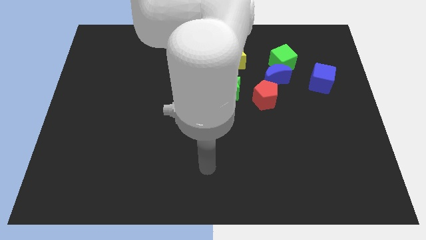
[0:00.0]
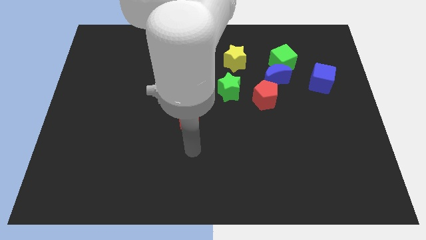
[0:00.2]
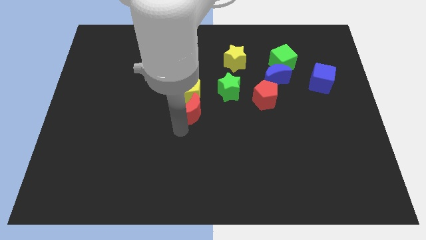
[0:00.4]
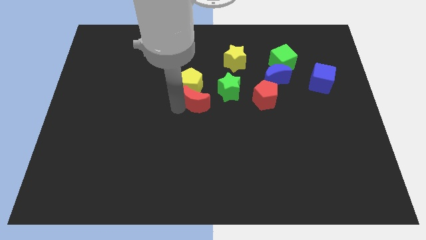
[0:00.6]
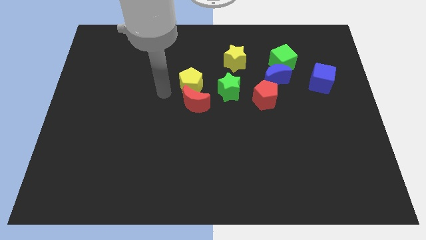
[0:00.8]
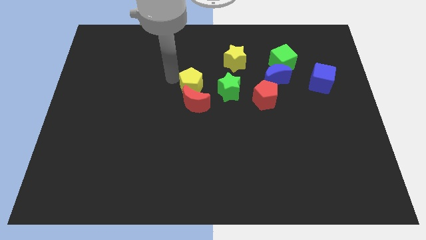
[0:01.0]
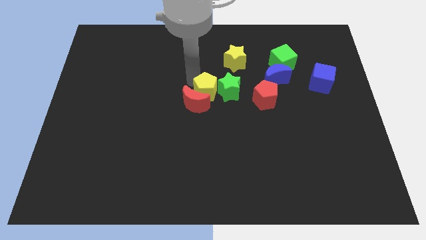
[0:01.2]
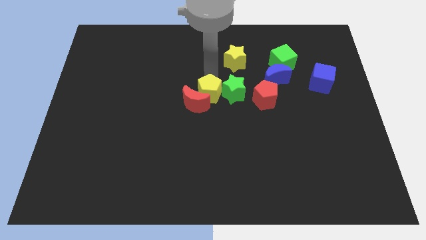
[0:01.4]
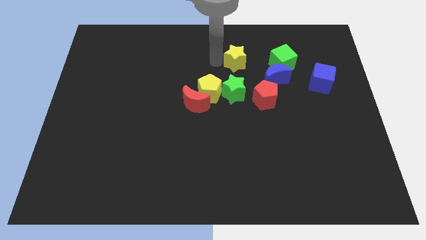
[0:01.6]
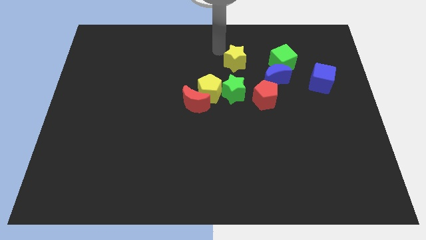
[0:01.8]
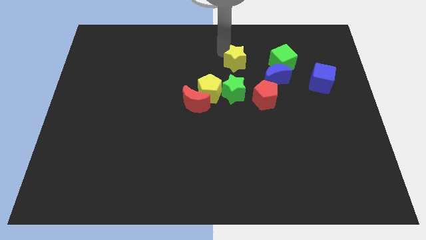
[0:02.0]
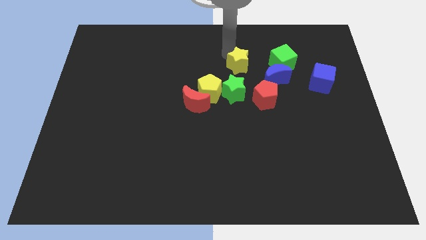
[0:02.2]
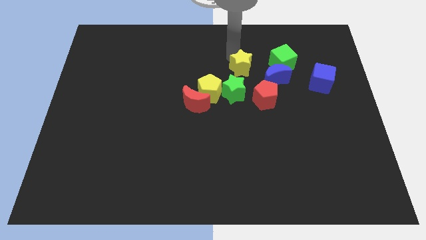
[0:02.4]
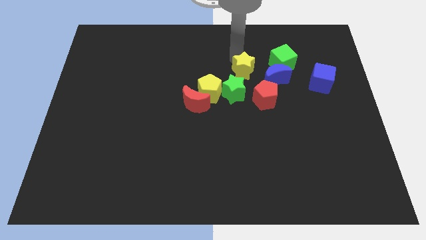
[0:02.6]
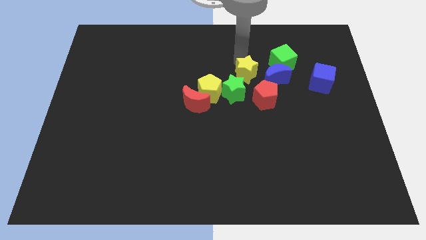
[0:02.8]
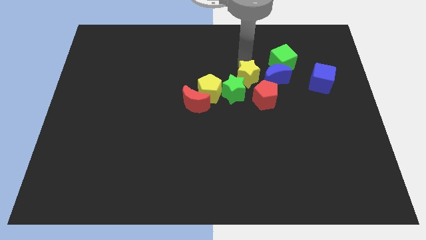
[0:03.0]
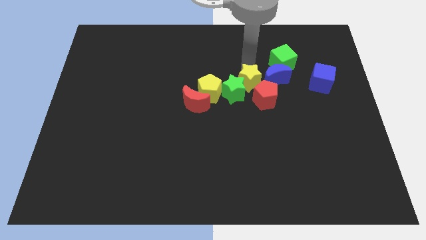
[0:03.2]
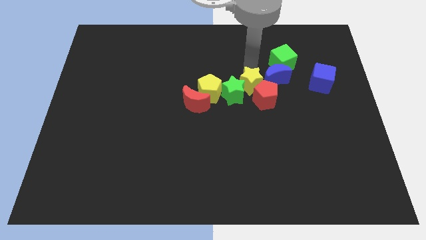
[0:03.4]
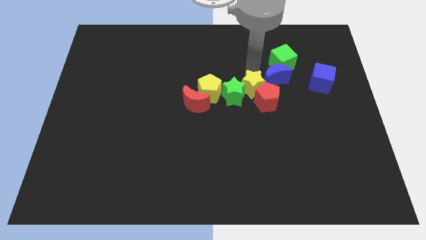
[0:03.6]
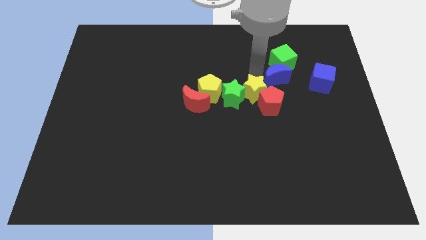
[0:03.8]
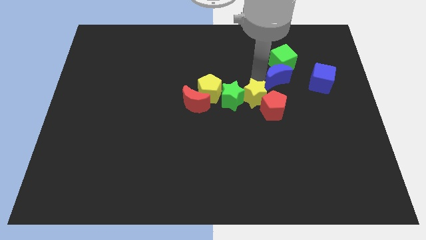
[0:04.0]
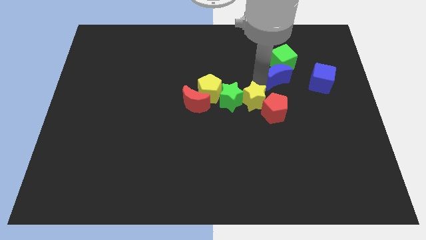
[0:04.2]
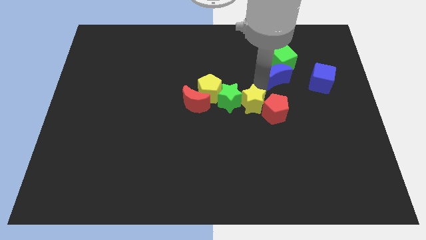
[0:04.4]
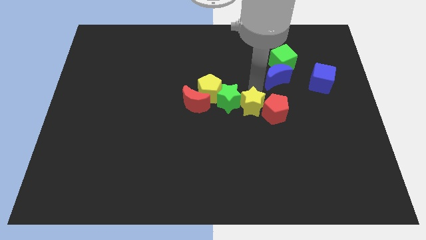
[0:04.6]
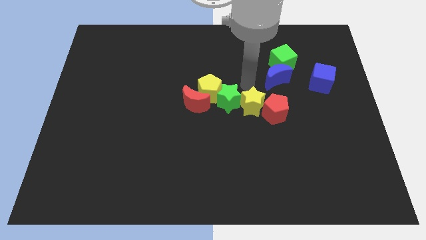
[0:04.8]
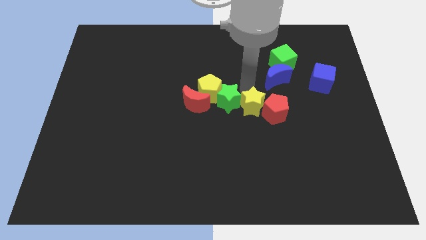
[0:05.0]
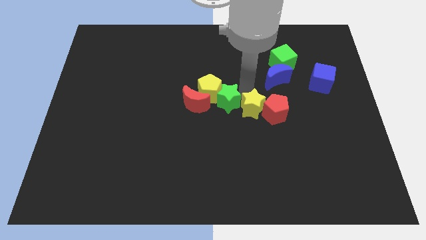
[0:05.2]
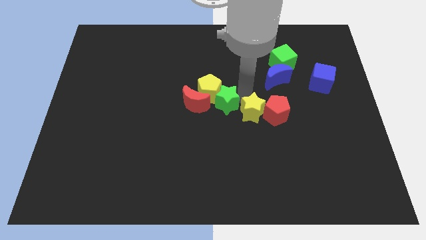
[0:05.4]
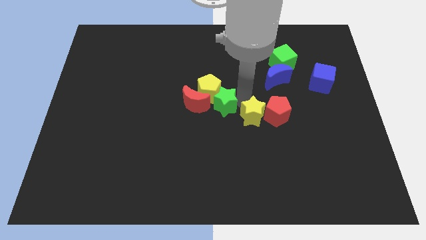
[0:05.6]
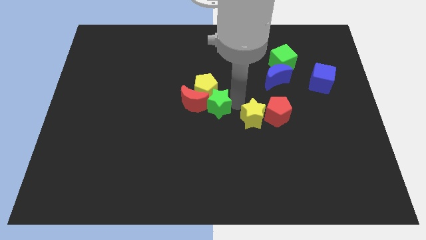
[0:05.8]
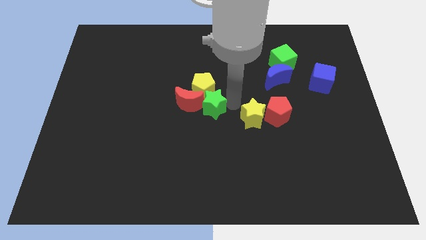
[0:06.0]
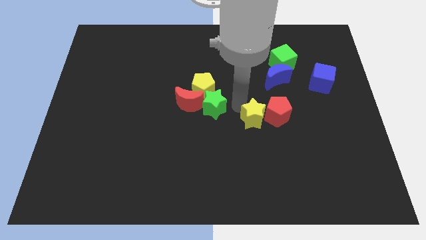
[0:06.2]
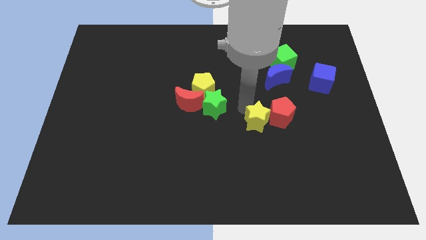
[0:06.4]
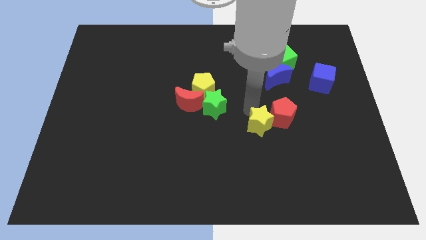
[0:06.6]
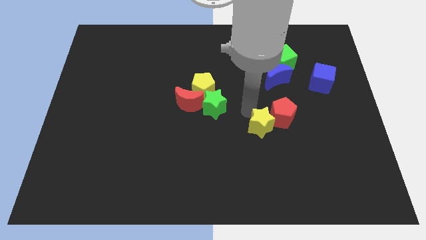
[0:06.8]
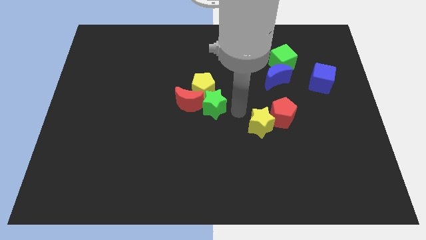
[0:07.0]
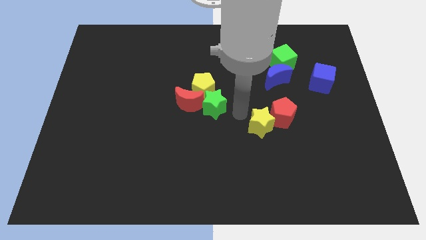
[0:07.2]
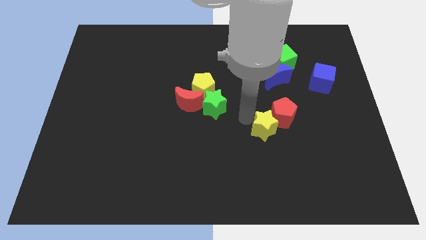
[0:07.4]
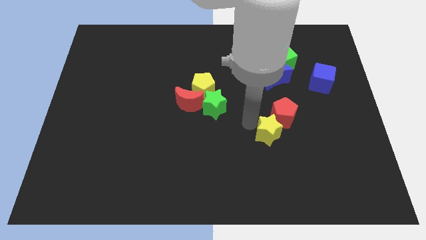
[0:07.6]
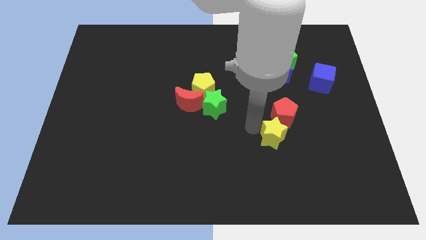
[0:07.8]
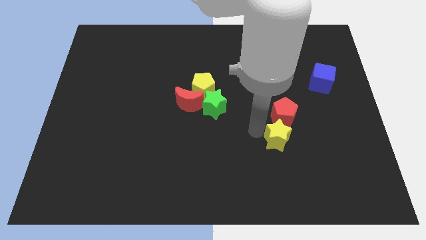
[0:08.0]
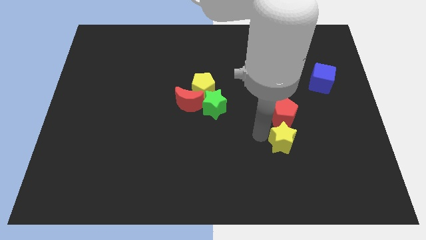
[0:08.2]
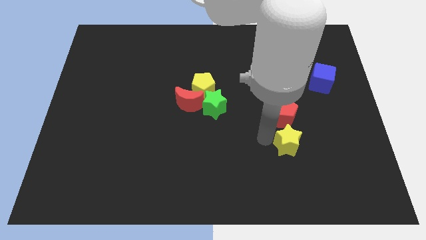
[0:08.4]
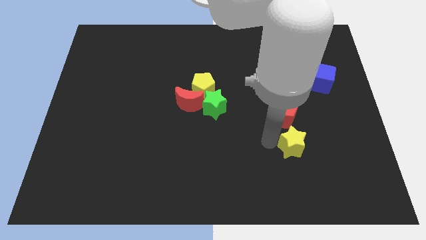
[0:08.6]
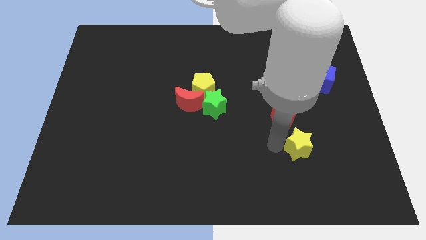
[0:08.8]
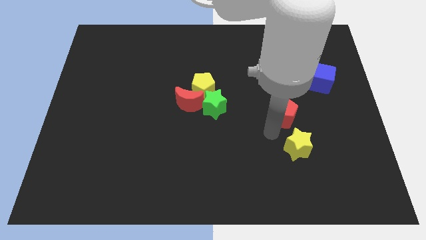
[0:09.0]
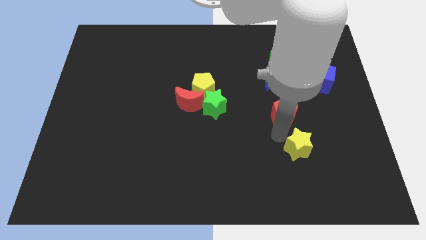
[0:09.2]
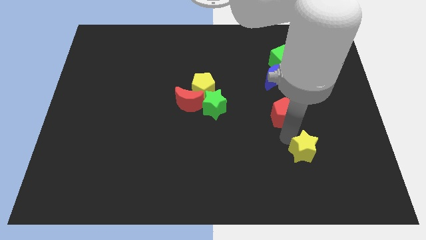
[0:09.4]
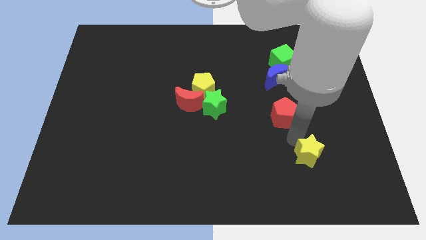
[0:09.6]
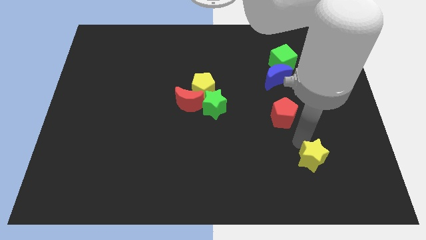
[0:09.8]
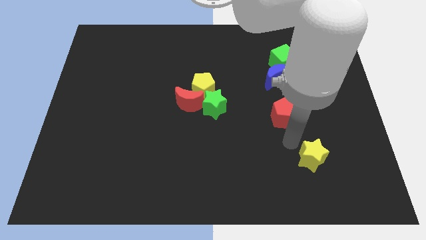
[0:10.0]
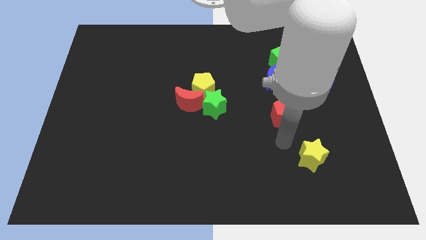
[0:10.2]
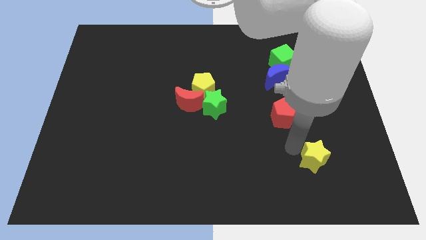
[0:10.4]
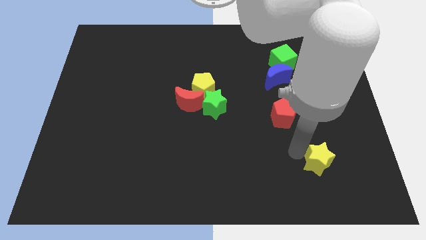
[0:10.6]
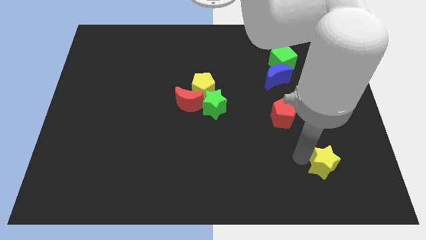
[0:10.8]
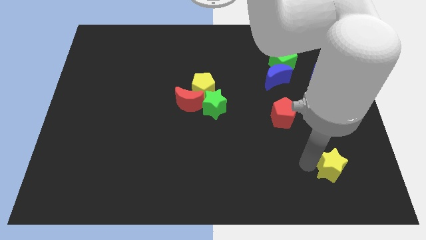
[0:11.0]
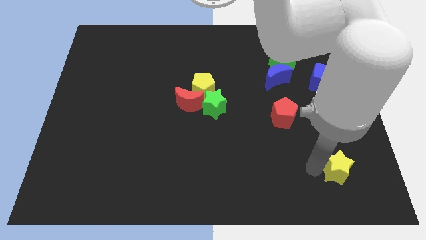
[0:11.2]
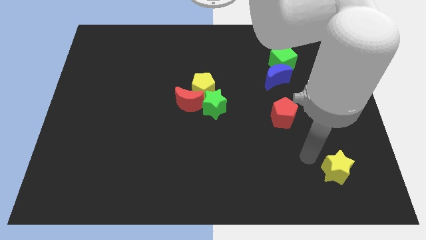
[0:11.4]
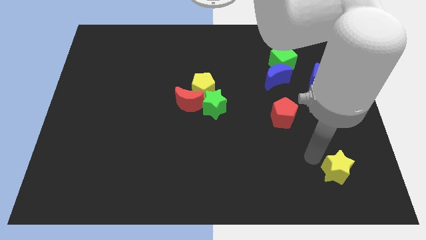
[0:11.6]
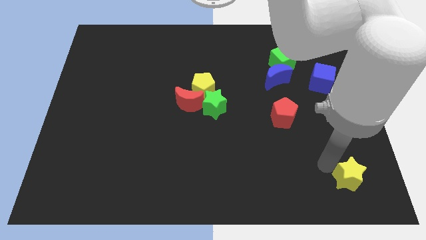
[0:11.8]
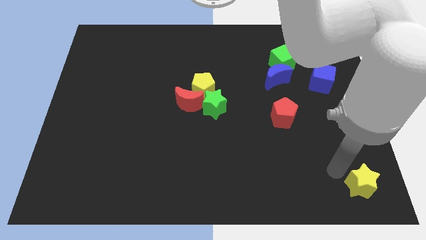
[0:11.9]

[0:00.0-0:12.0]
put the yellow star to the bottom right of the board

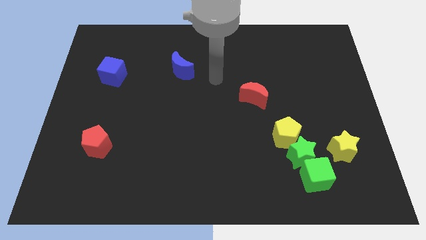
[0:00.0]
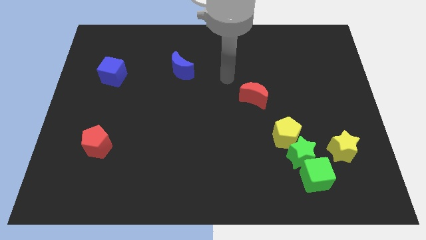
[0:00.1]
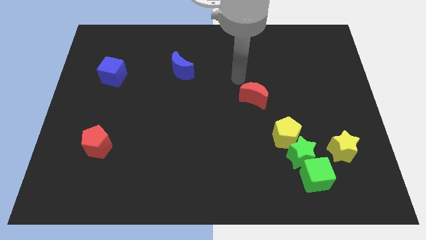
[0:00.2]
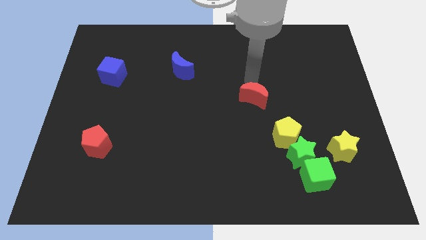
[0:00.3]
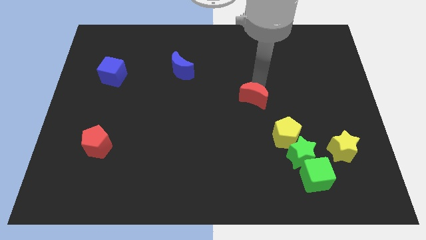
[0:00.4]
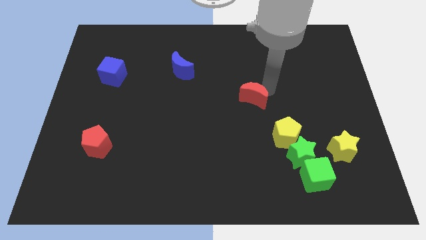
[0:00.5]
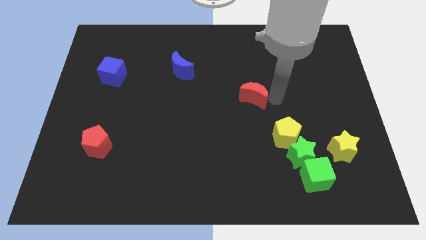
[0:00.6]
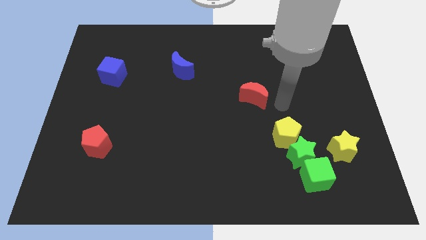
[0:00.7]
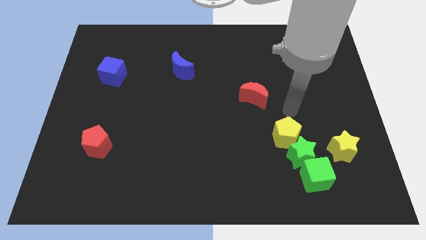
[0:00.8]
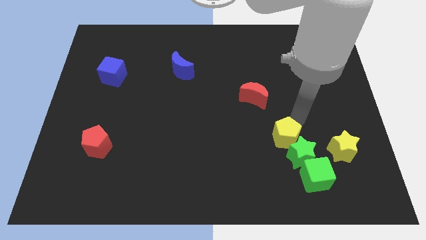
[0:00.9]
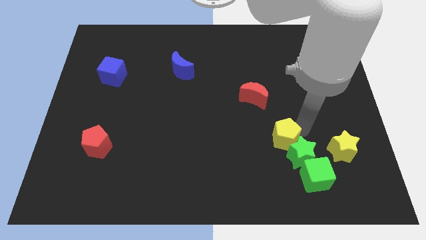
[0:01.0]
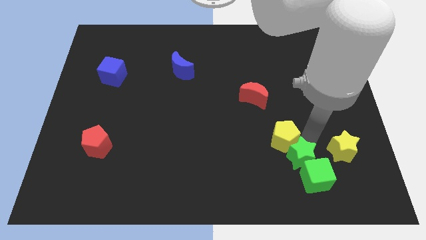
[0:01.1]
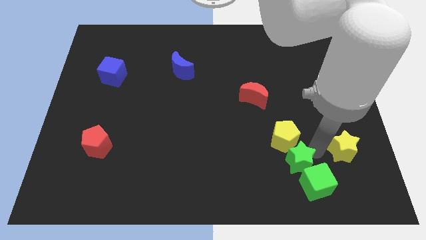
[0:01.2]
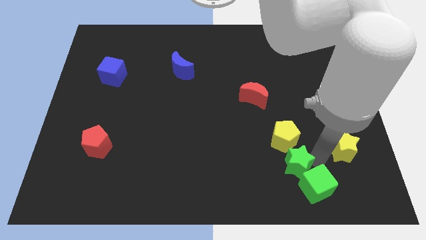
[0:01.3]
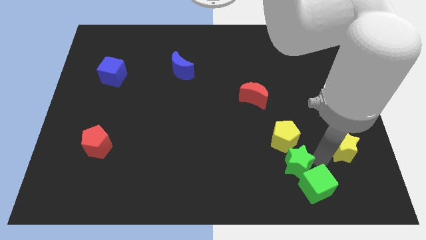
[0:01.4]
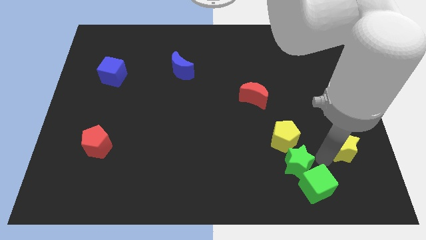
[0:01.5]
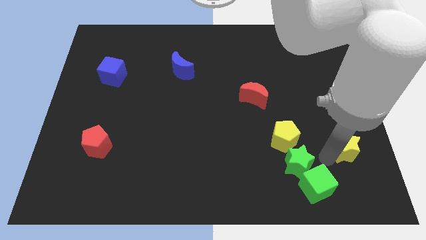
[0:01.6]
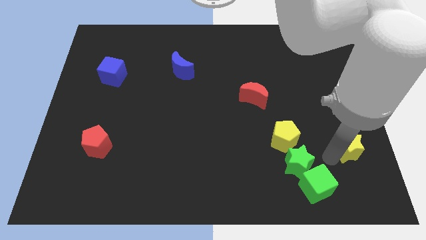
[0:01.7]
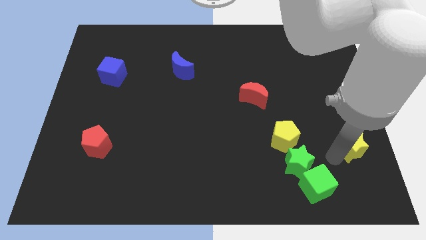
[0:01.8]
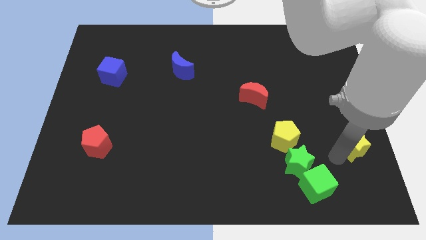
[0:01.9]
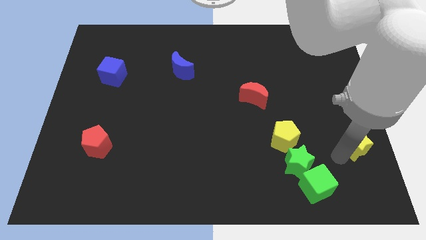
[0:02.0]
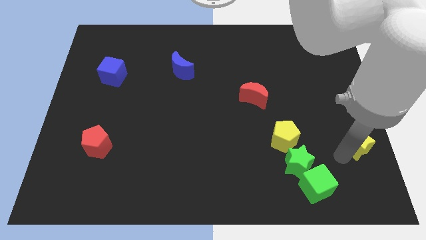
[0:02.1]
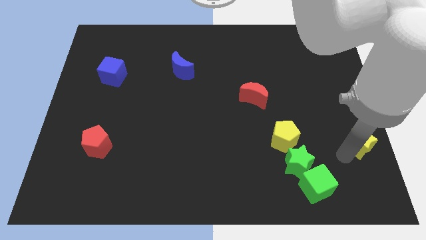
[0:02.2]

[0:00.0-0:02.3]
move the yellow star to the center right
